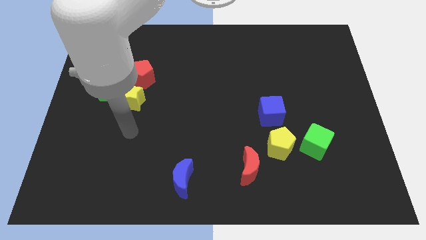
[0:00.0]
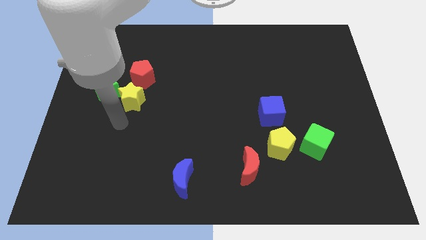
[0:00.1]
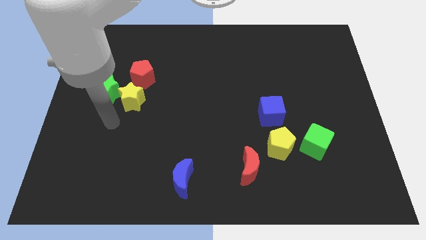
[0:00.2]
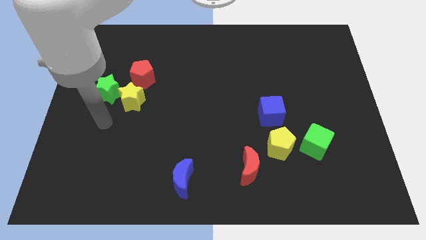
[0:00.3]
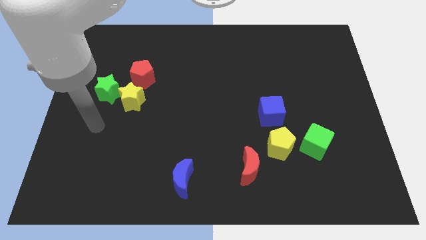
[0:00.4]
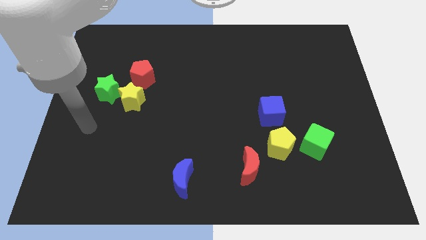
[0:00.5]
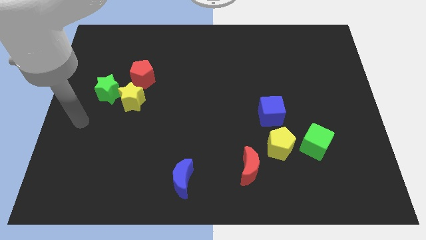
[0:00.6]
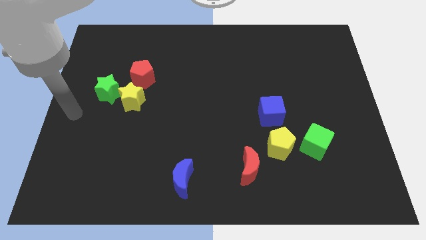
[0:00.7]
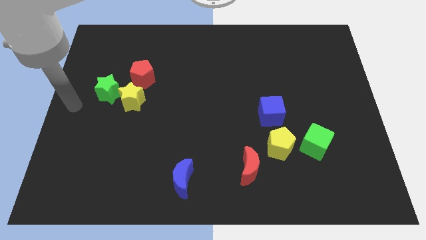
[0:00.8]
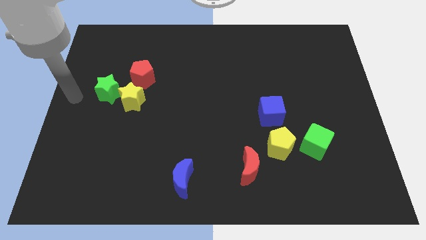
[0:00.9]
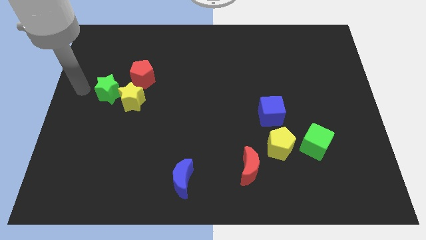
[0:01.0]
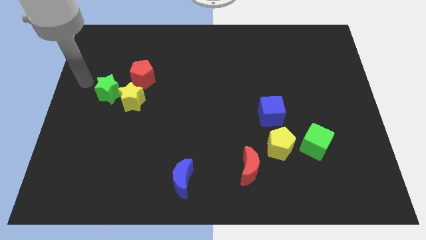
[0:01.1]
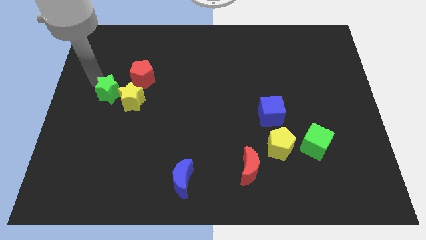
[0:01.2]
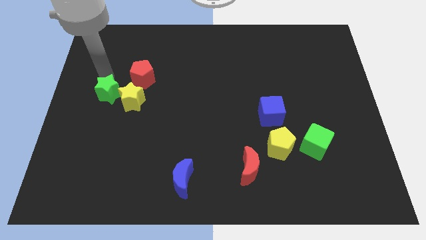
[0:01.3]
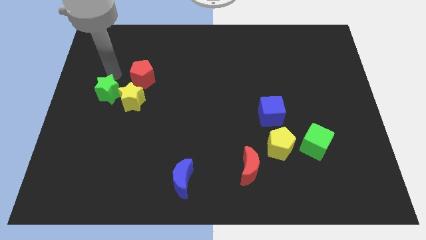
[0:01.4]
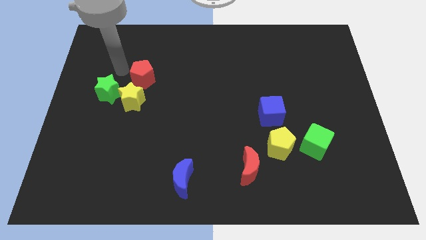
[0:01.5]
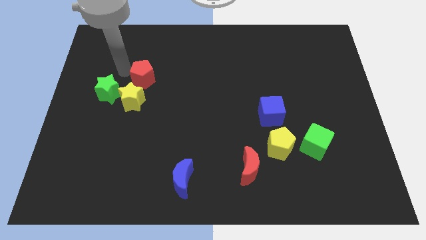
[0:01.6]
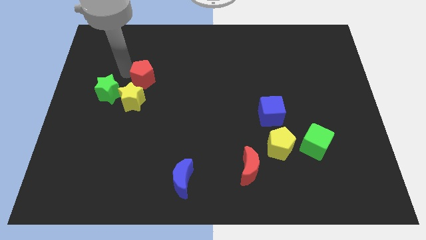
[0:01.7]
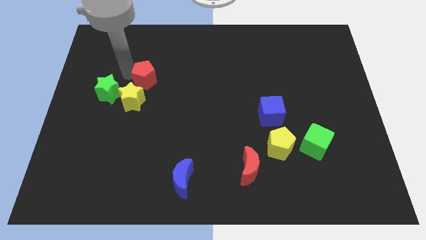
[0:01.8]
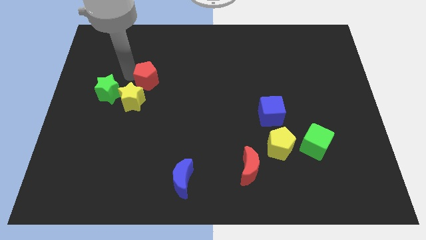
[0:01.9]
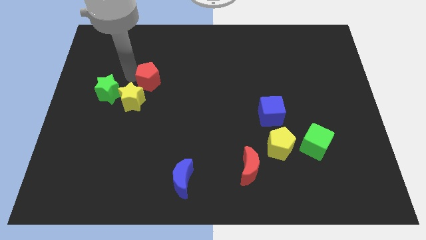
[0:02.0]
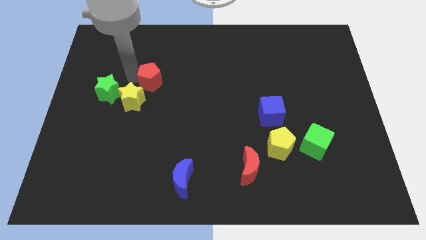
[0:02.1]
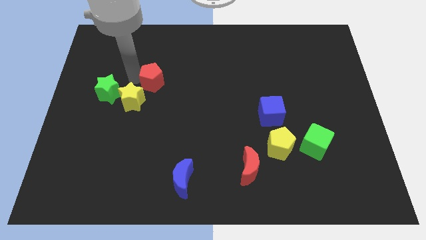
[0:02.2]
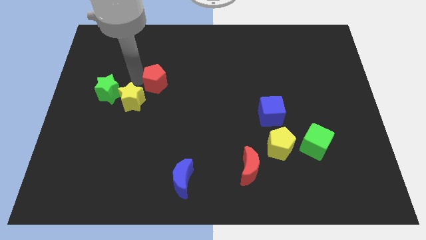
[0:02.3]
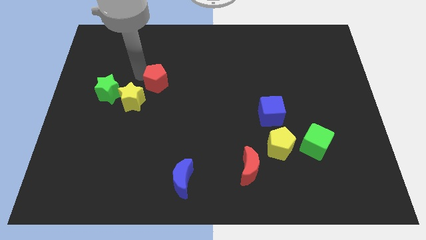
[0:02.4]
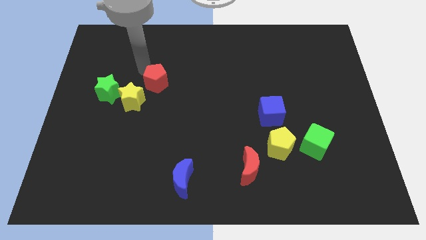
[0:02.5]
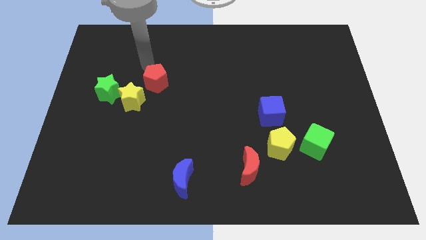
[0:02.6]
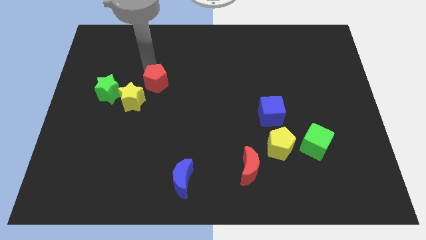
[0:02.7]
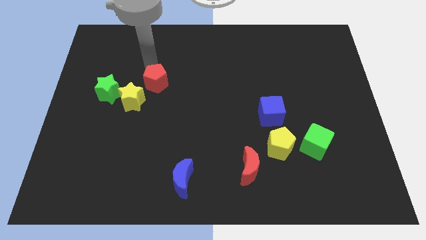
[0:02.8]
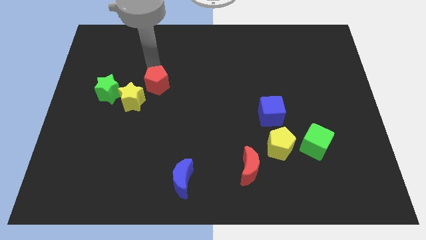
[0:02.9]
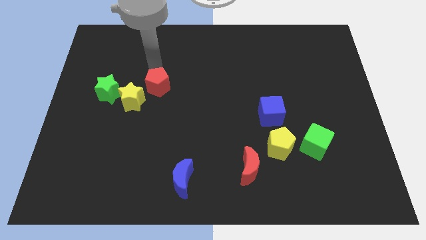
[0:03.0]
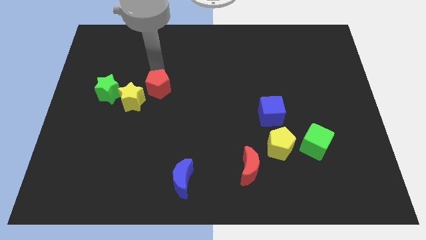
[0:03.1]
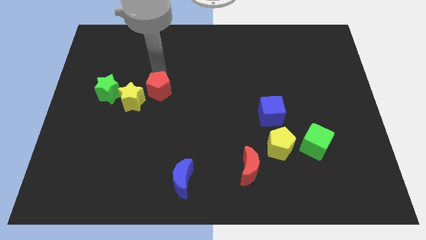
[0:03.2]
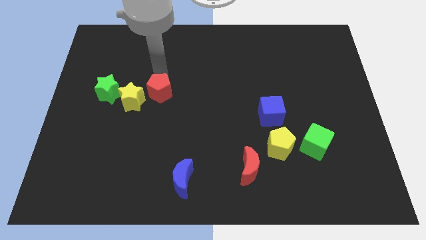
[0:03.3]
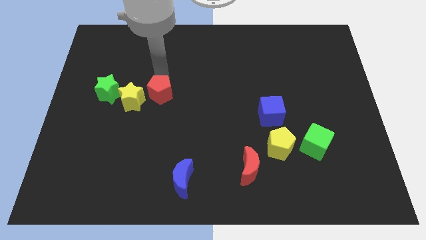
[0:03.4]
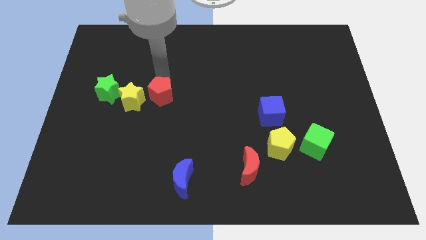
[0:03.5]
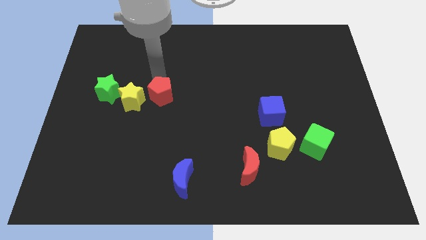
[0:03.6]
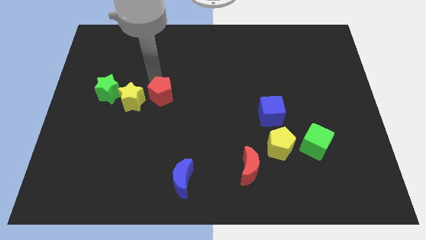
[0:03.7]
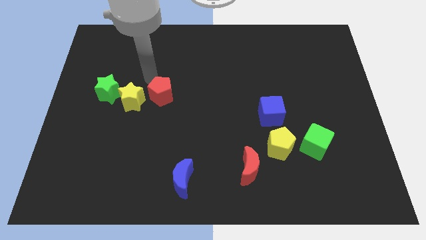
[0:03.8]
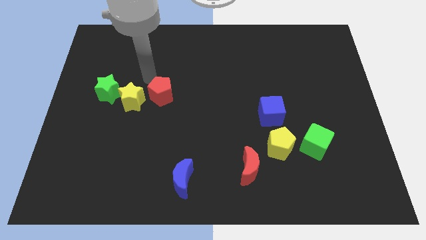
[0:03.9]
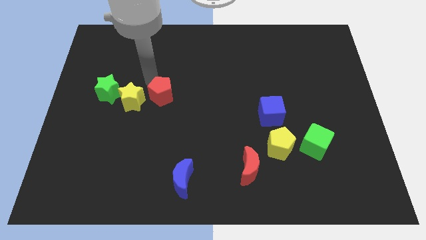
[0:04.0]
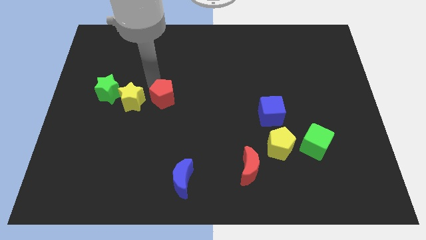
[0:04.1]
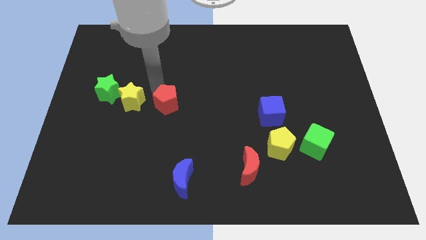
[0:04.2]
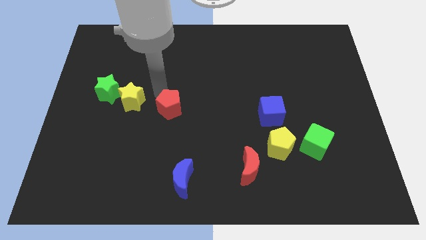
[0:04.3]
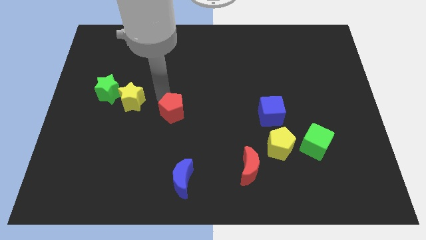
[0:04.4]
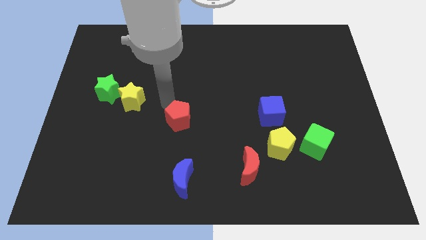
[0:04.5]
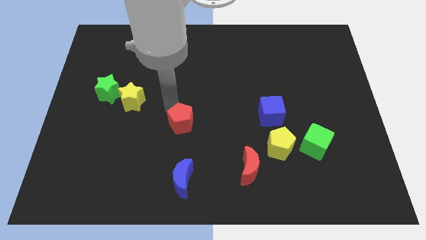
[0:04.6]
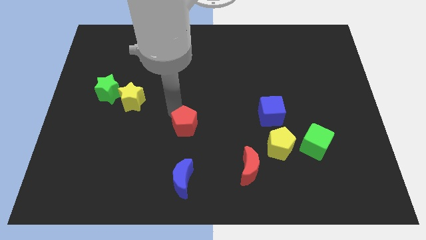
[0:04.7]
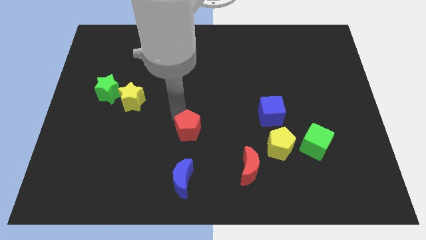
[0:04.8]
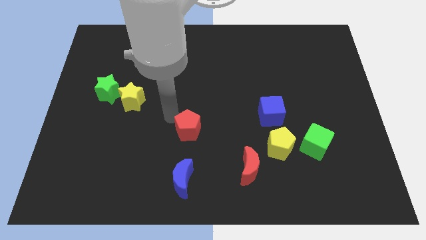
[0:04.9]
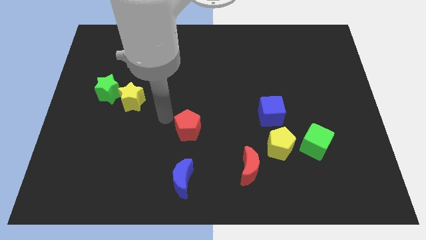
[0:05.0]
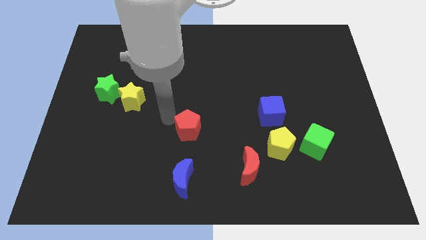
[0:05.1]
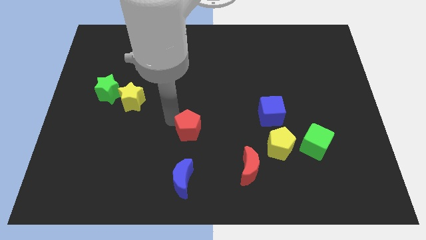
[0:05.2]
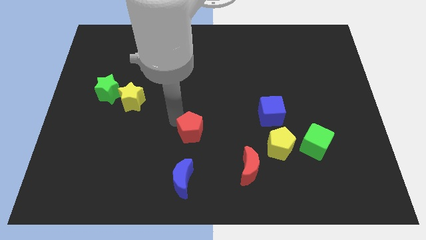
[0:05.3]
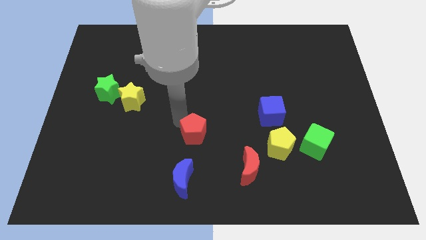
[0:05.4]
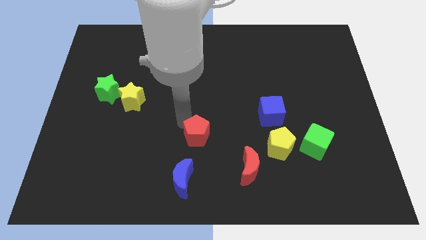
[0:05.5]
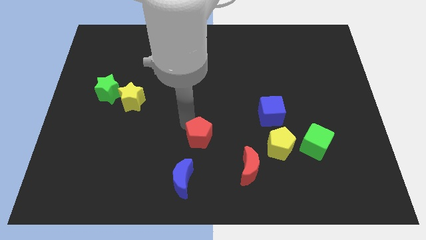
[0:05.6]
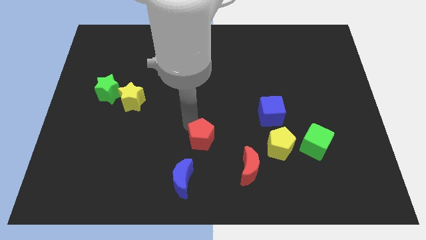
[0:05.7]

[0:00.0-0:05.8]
push the red pentagon to the top left side of the red moon

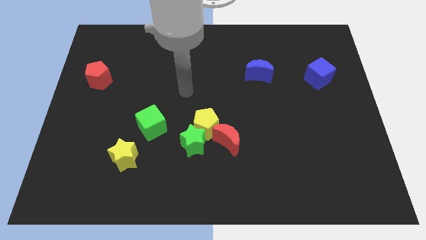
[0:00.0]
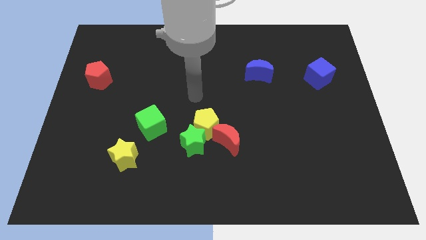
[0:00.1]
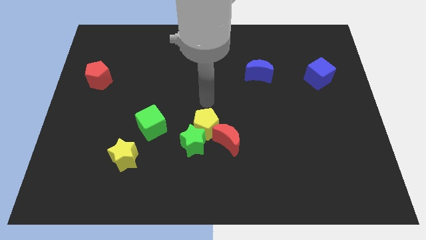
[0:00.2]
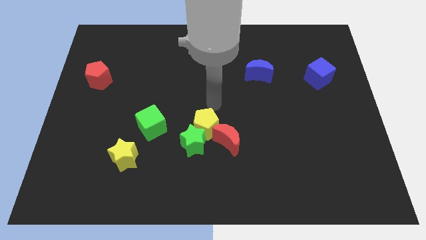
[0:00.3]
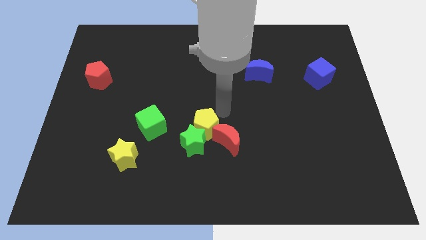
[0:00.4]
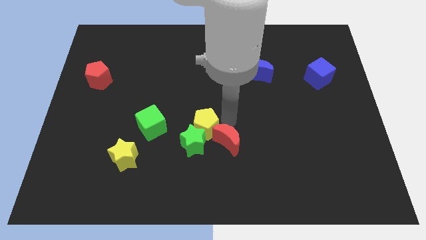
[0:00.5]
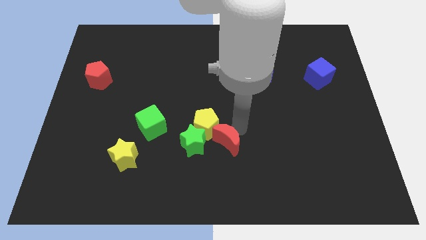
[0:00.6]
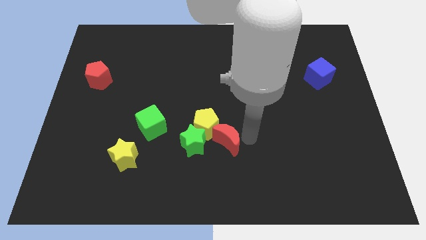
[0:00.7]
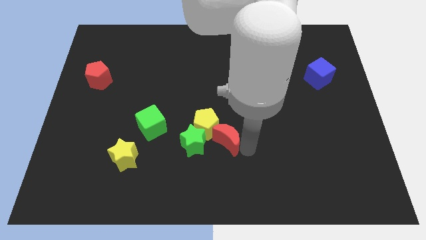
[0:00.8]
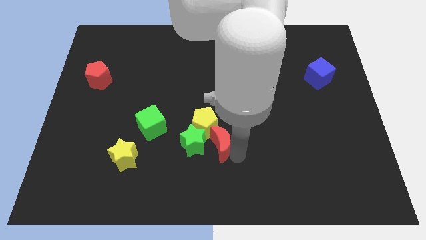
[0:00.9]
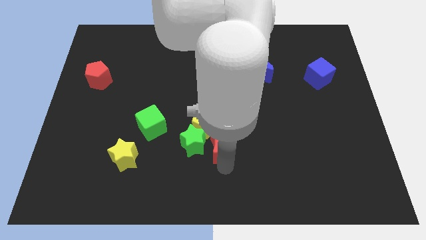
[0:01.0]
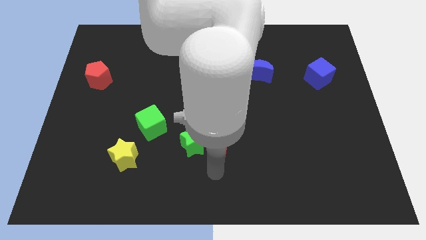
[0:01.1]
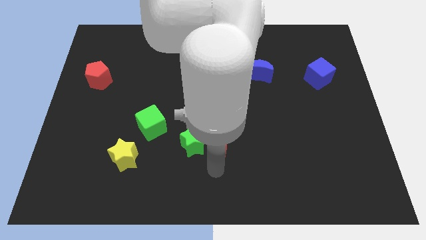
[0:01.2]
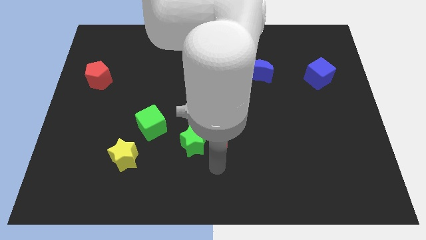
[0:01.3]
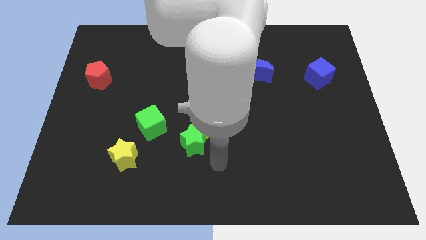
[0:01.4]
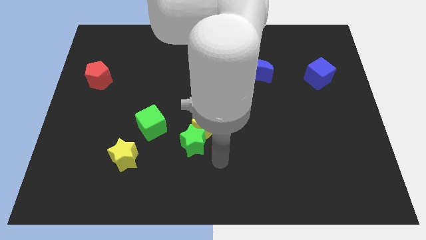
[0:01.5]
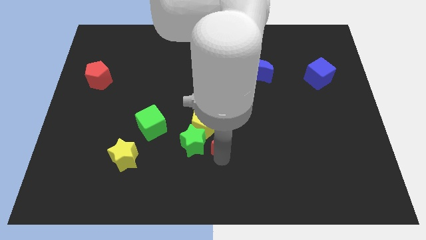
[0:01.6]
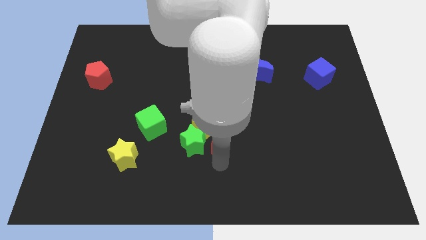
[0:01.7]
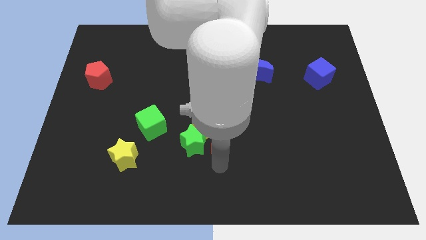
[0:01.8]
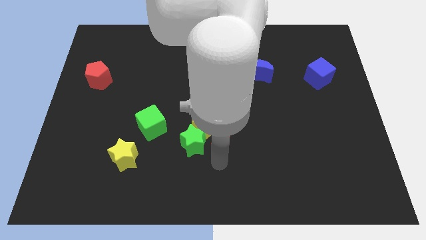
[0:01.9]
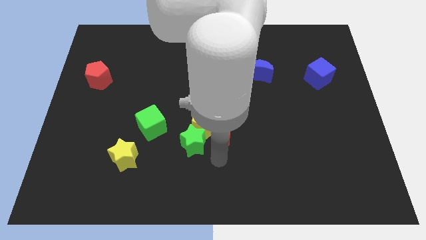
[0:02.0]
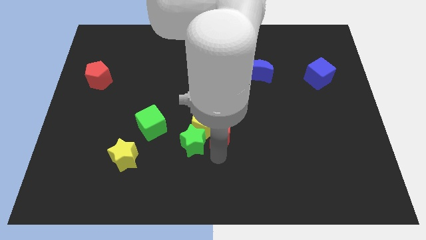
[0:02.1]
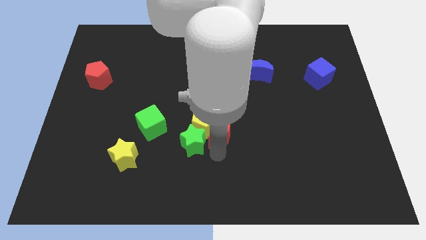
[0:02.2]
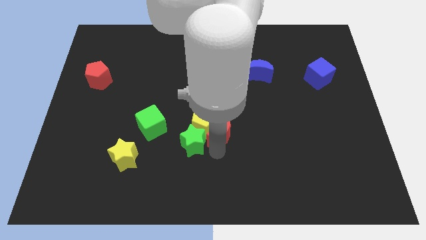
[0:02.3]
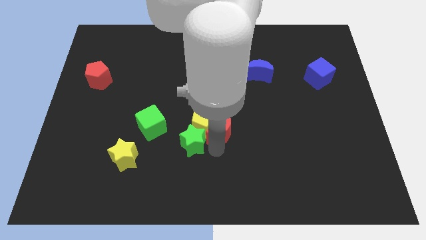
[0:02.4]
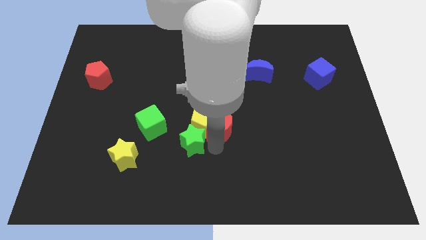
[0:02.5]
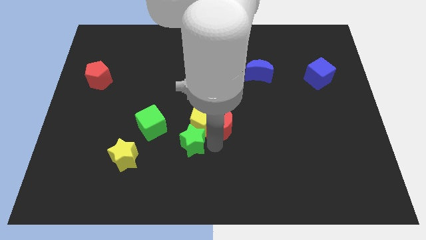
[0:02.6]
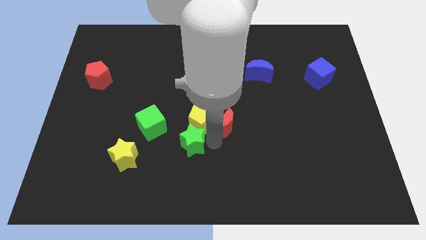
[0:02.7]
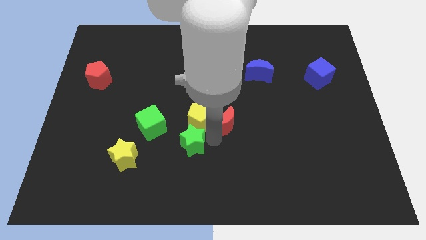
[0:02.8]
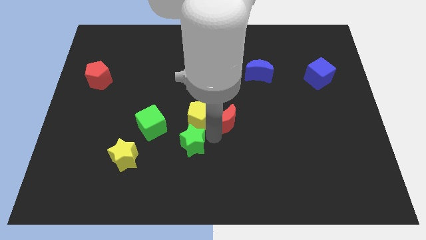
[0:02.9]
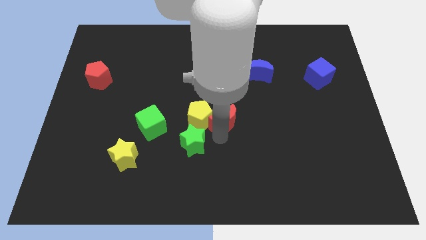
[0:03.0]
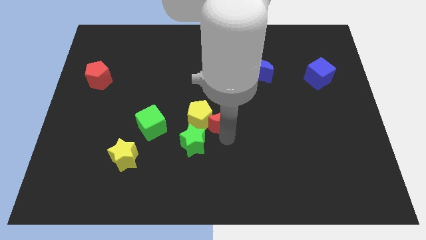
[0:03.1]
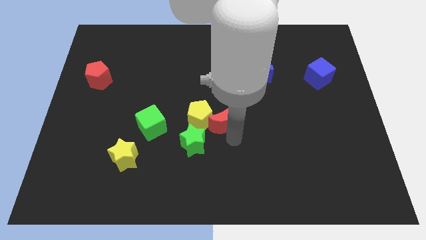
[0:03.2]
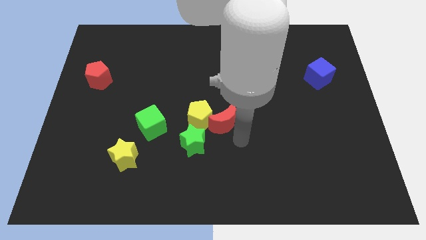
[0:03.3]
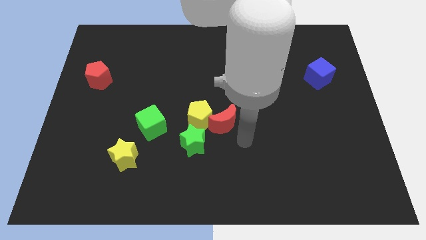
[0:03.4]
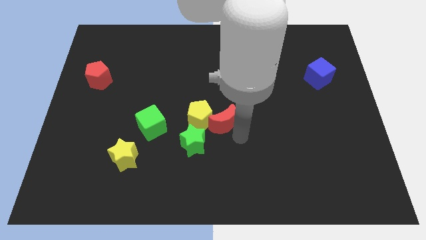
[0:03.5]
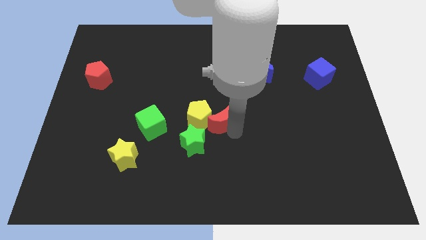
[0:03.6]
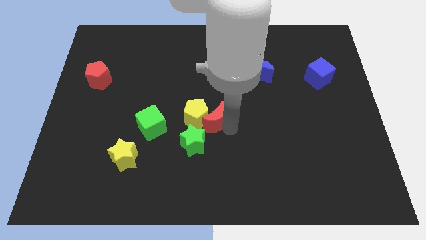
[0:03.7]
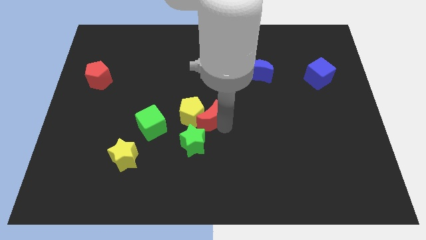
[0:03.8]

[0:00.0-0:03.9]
move the red moon above the green star
